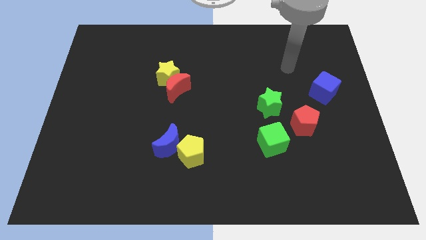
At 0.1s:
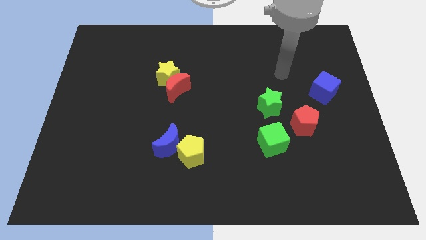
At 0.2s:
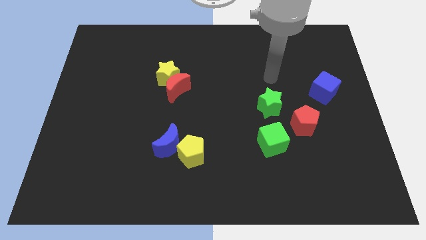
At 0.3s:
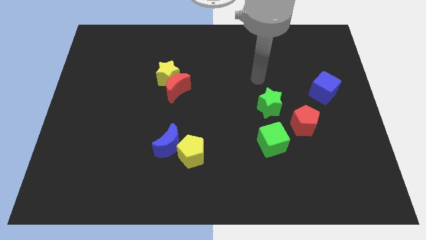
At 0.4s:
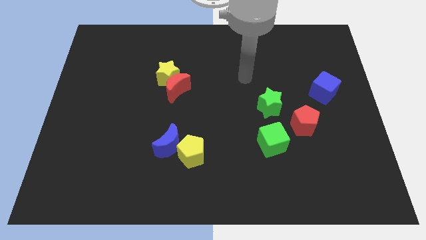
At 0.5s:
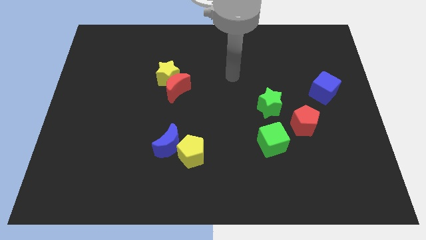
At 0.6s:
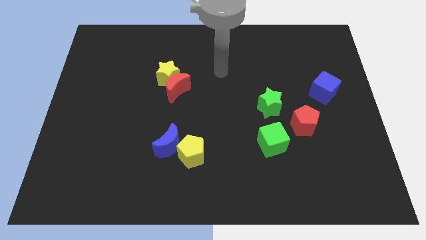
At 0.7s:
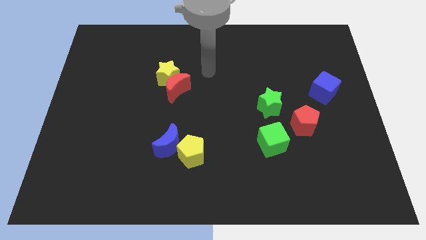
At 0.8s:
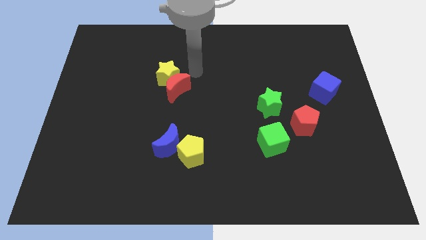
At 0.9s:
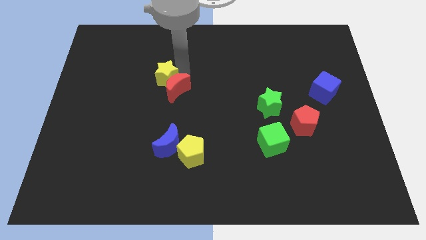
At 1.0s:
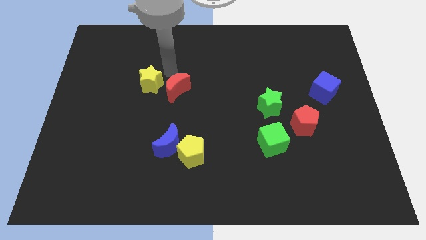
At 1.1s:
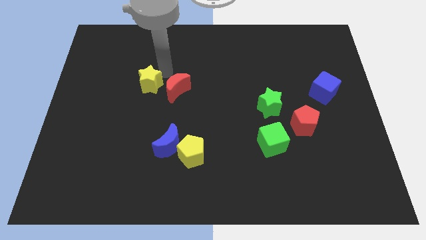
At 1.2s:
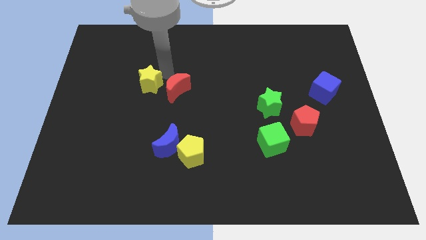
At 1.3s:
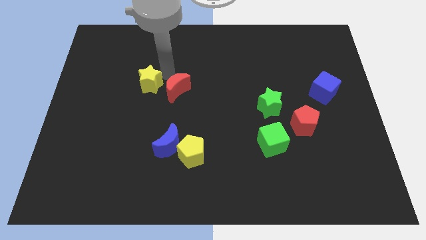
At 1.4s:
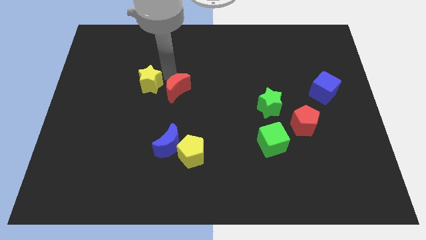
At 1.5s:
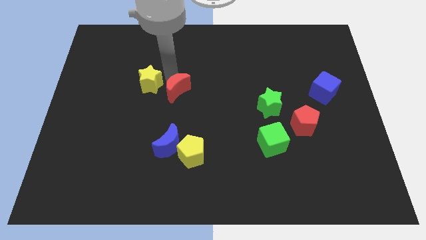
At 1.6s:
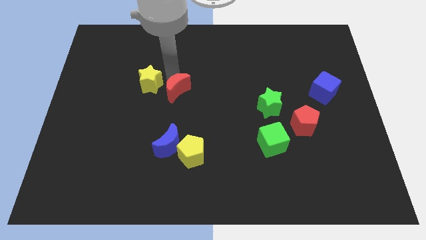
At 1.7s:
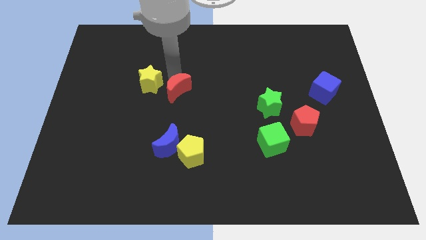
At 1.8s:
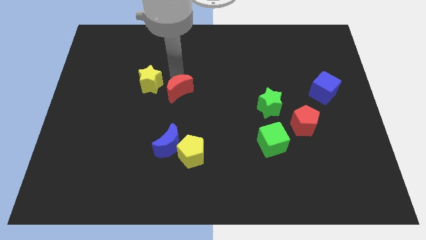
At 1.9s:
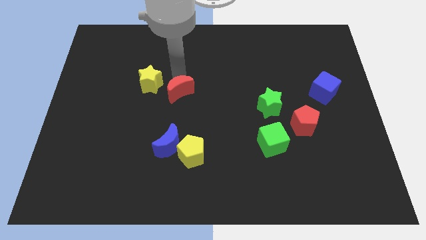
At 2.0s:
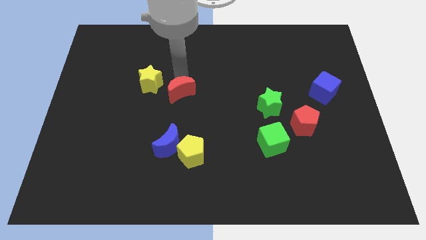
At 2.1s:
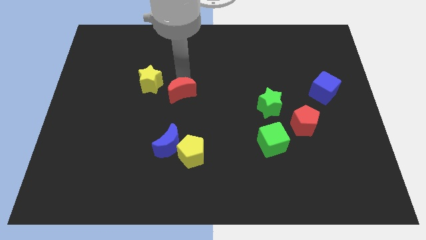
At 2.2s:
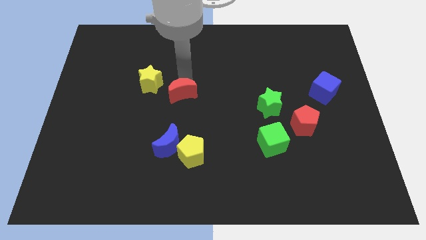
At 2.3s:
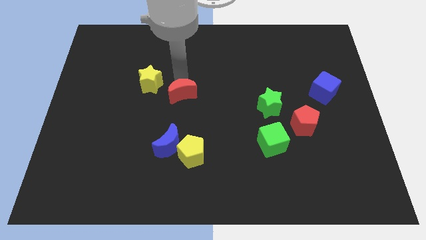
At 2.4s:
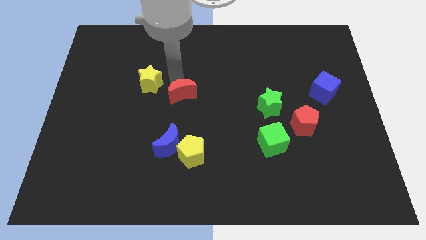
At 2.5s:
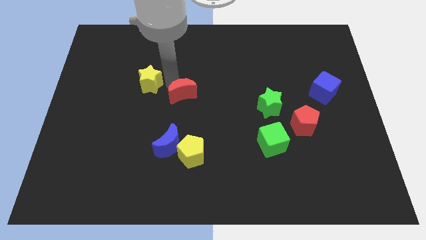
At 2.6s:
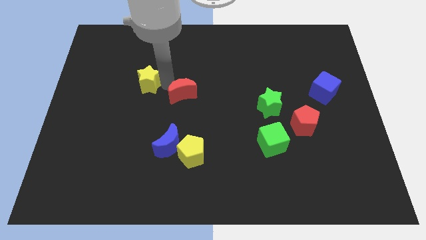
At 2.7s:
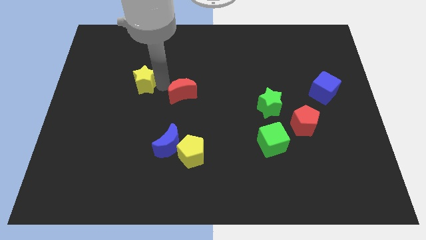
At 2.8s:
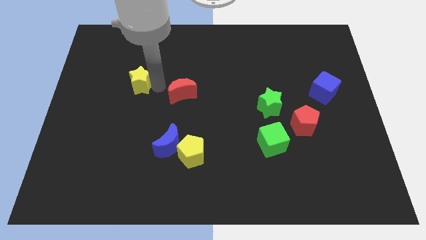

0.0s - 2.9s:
move the red moon away from the yellow star

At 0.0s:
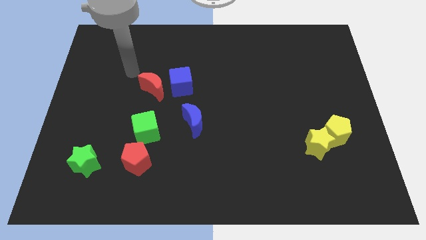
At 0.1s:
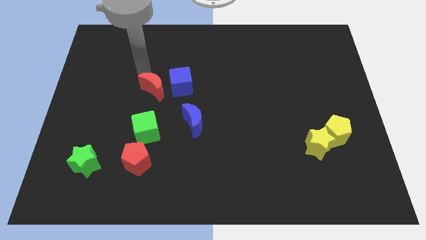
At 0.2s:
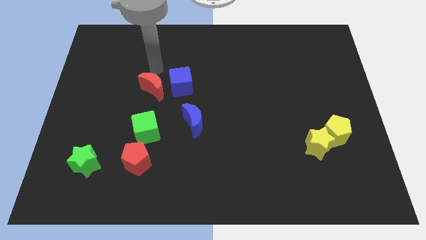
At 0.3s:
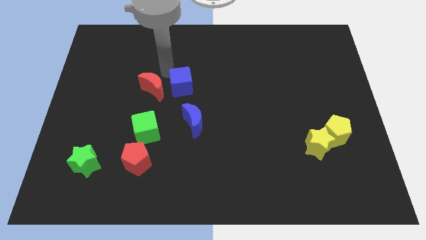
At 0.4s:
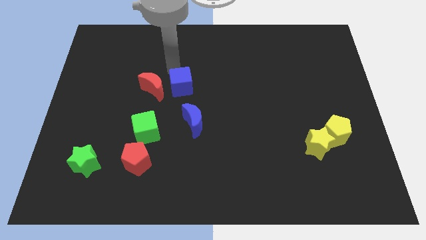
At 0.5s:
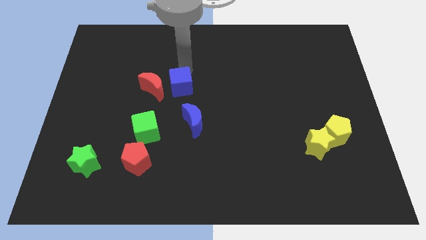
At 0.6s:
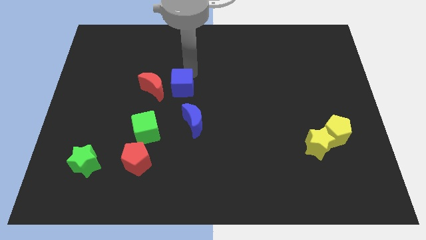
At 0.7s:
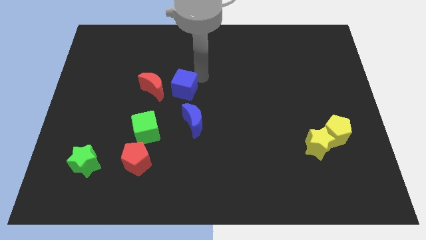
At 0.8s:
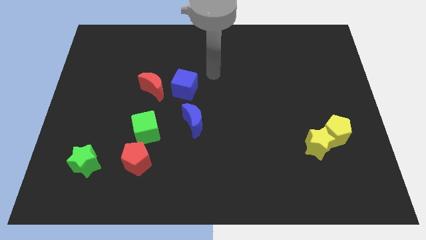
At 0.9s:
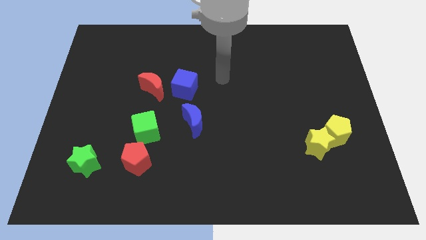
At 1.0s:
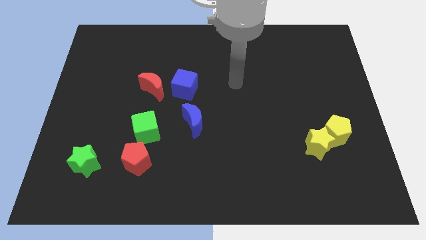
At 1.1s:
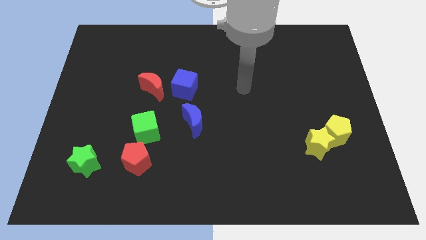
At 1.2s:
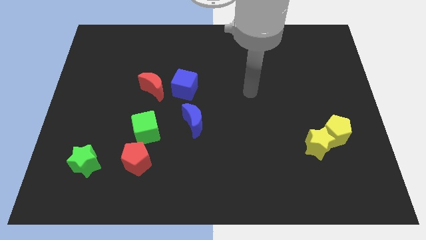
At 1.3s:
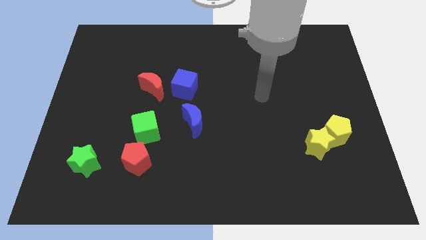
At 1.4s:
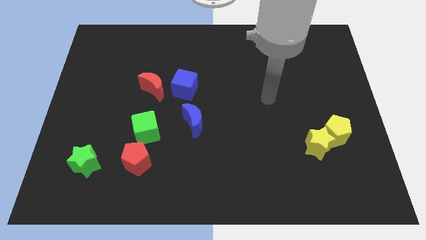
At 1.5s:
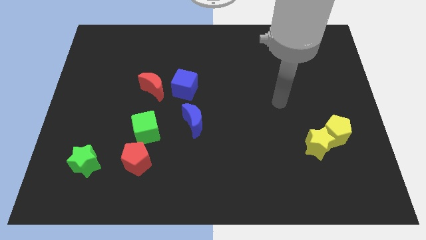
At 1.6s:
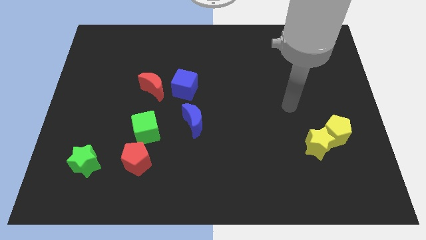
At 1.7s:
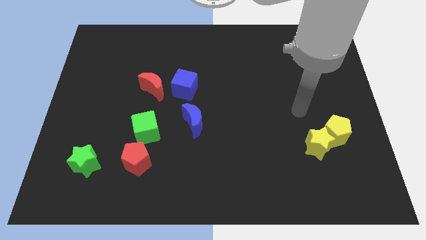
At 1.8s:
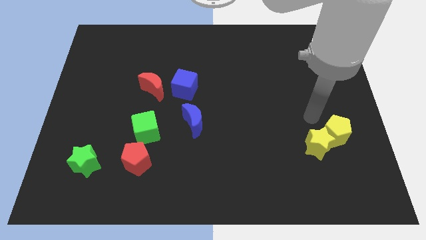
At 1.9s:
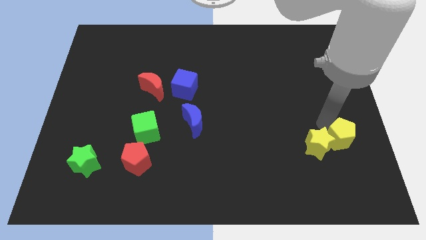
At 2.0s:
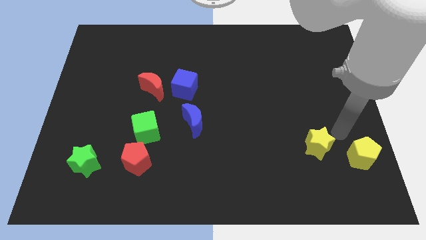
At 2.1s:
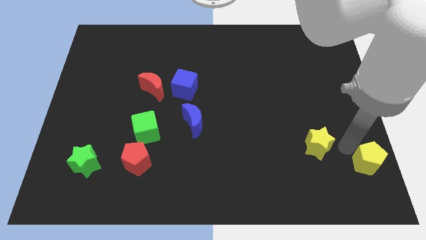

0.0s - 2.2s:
move the yellow star away from the yellow pentagon

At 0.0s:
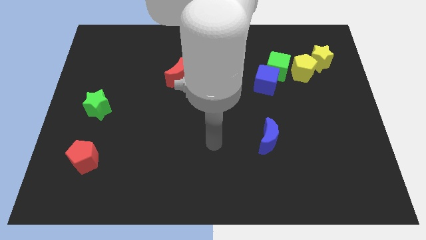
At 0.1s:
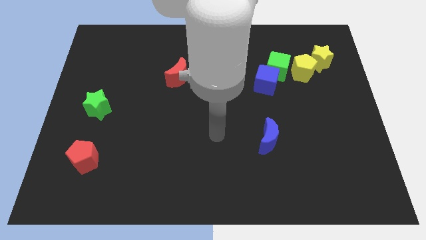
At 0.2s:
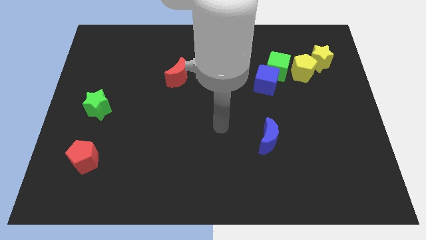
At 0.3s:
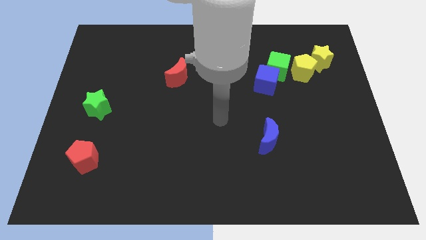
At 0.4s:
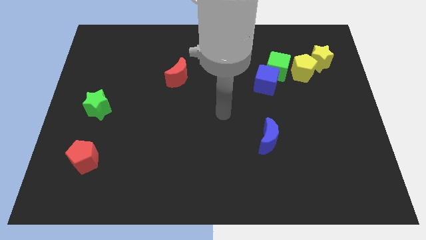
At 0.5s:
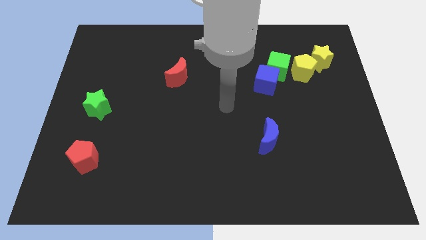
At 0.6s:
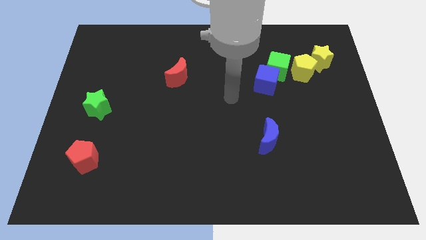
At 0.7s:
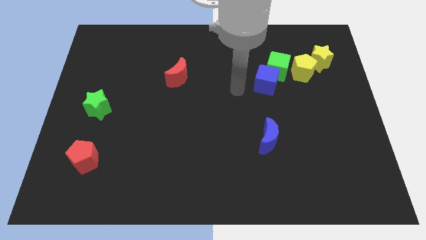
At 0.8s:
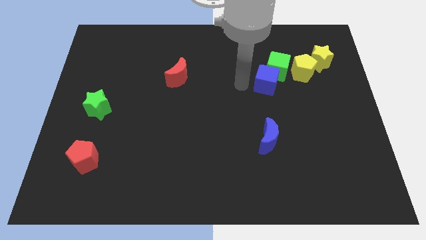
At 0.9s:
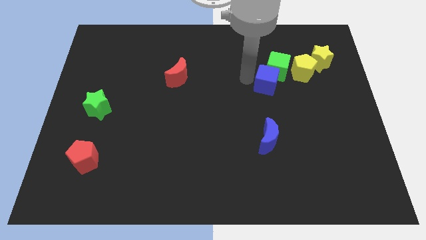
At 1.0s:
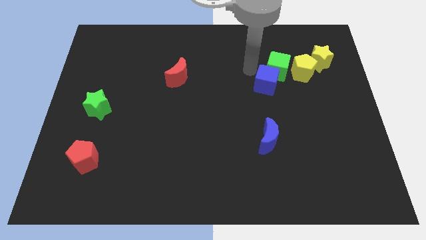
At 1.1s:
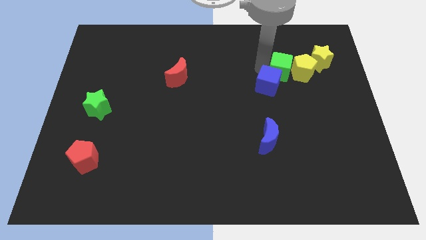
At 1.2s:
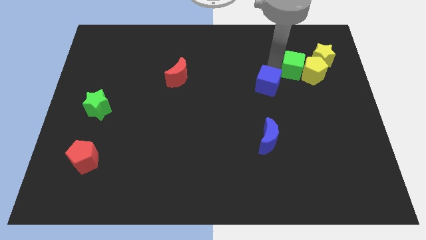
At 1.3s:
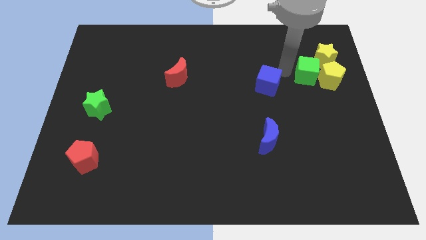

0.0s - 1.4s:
move the blue cube away from the green cube

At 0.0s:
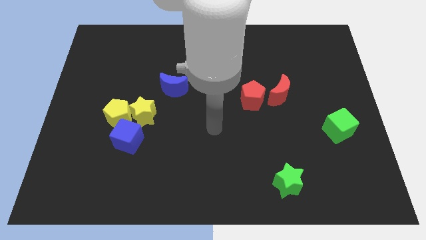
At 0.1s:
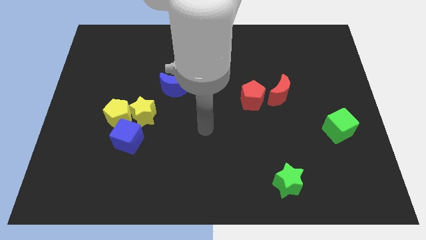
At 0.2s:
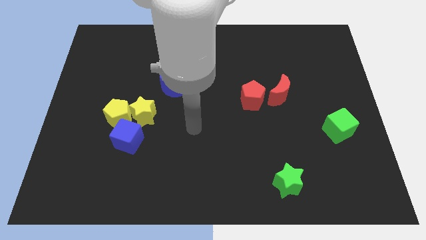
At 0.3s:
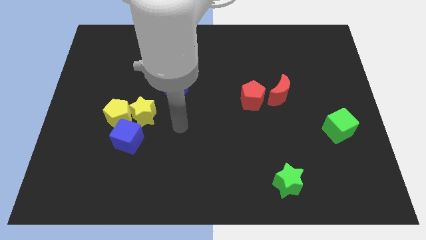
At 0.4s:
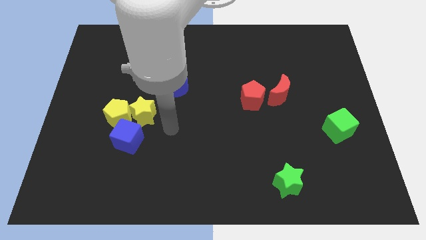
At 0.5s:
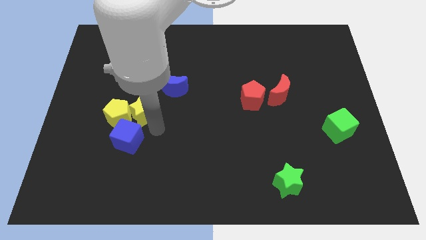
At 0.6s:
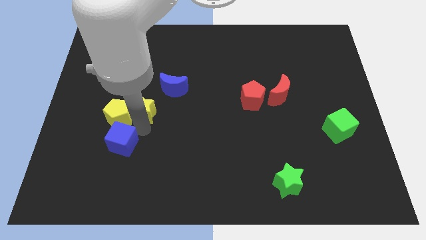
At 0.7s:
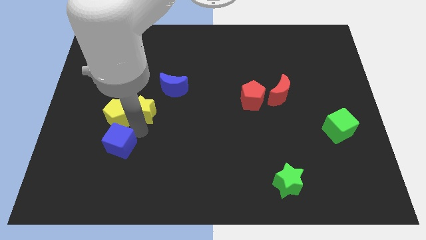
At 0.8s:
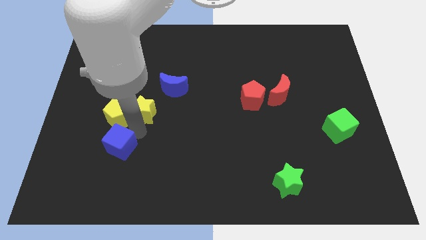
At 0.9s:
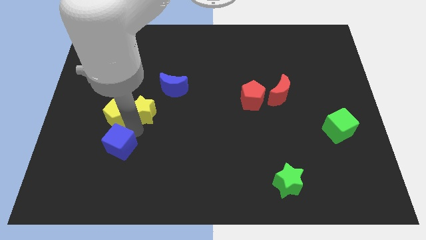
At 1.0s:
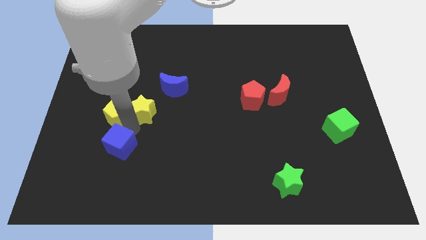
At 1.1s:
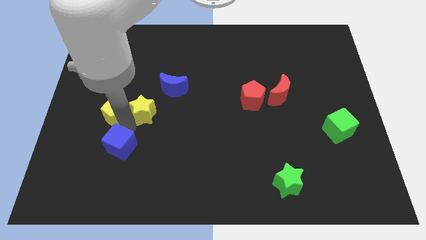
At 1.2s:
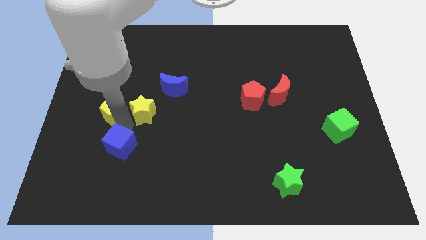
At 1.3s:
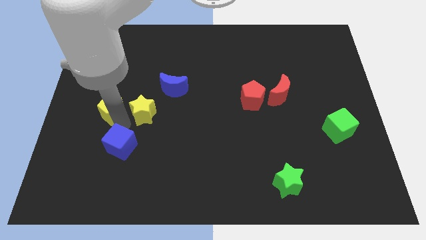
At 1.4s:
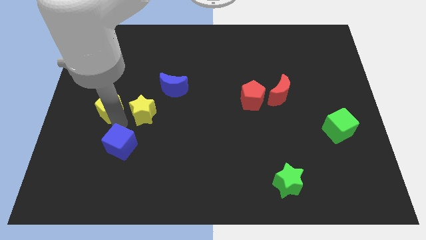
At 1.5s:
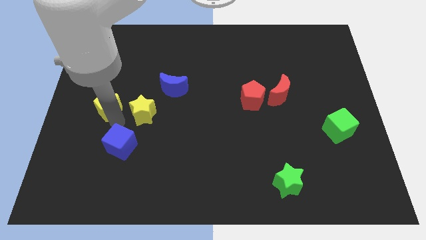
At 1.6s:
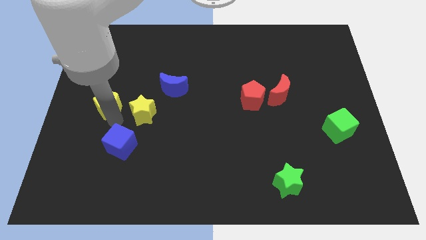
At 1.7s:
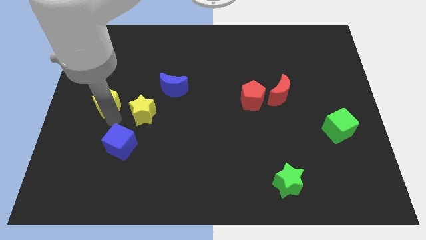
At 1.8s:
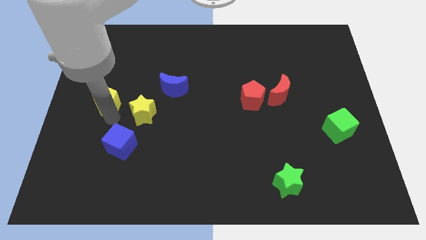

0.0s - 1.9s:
separate the yellow pentagon from the yellow star and blue cube

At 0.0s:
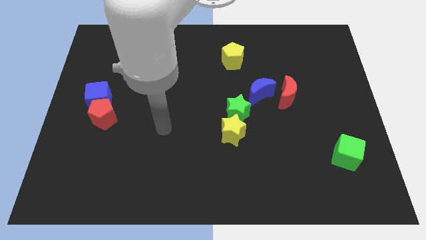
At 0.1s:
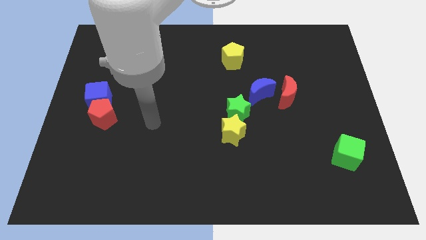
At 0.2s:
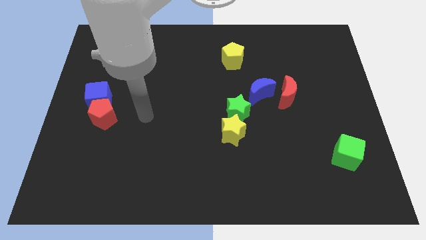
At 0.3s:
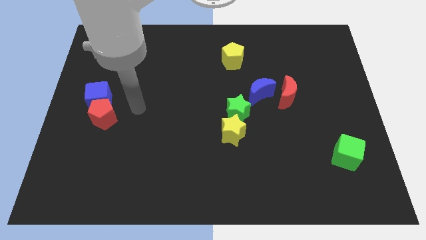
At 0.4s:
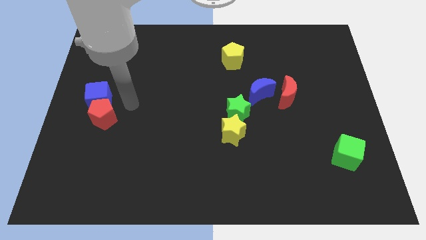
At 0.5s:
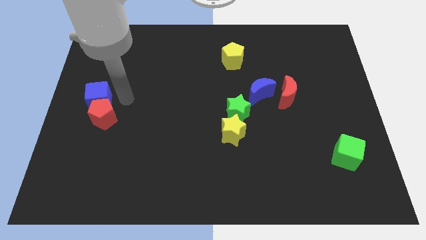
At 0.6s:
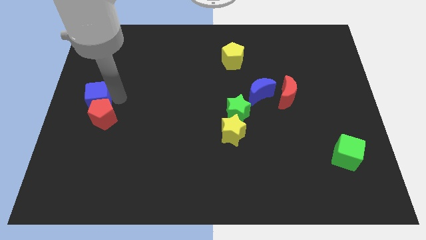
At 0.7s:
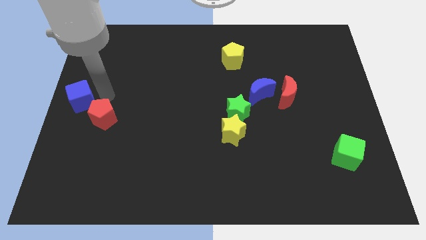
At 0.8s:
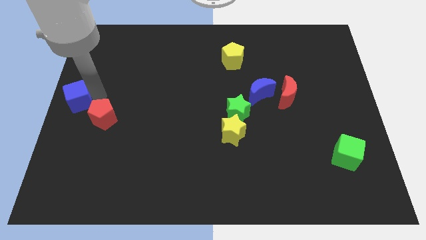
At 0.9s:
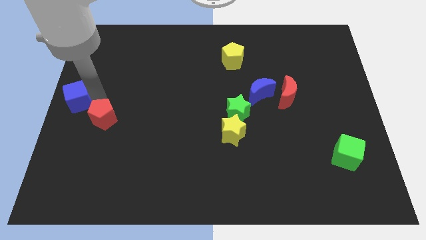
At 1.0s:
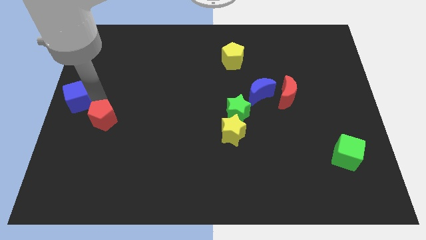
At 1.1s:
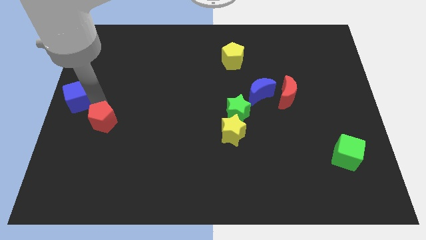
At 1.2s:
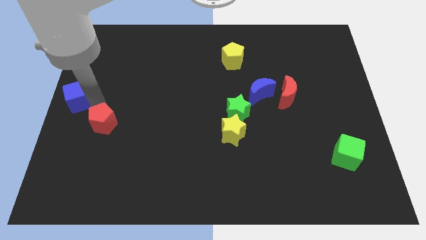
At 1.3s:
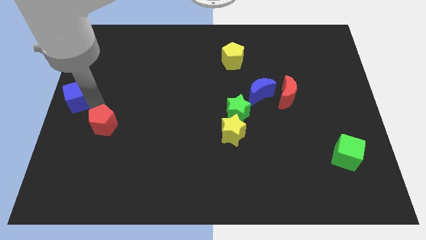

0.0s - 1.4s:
separate the red pentagon from the blue cube
